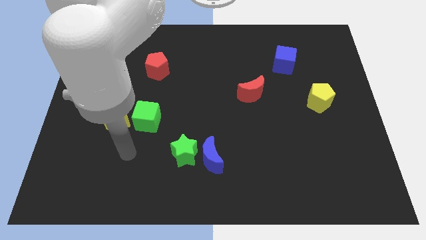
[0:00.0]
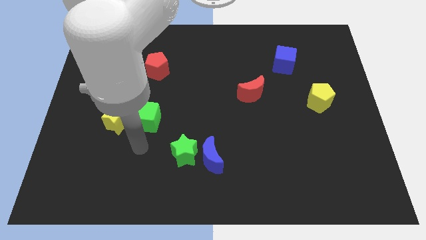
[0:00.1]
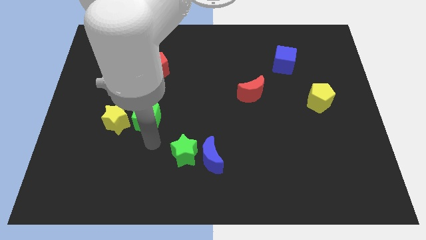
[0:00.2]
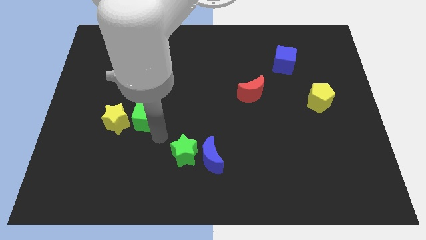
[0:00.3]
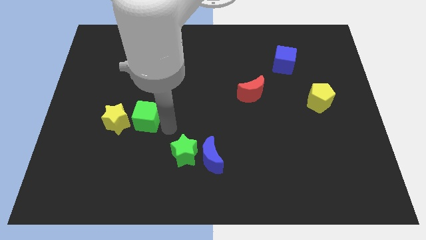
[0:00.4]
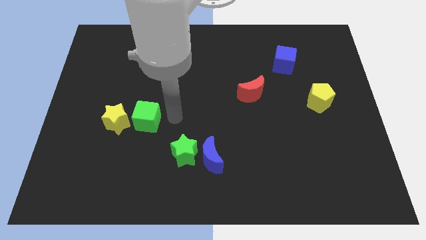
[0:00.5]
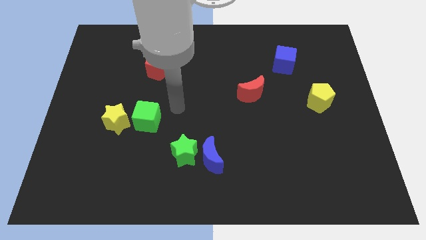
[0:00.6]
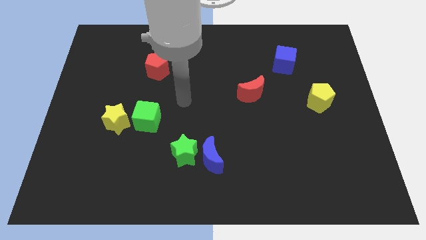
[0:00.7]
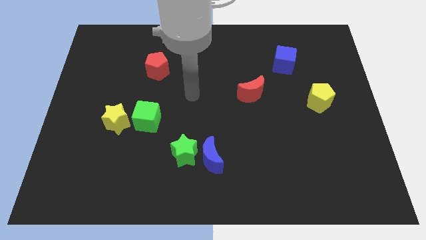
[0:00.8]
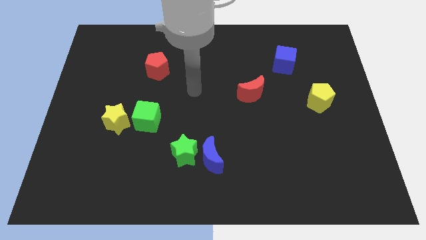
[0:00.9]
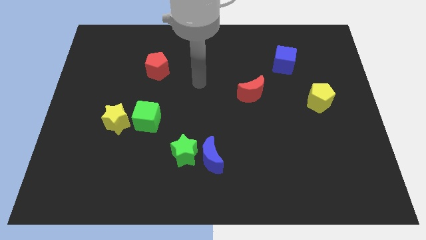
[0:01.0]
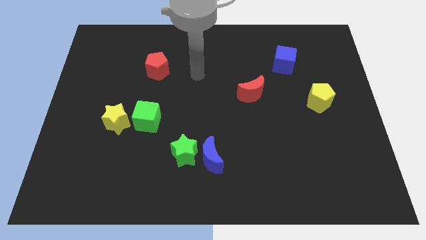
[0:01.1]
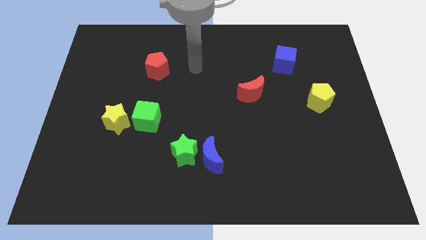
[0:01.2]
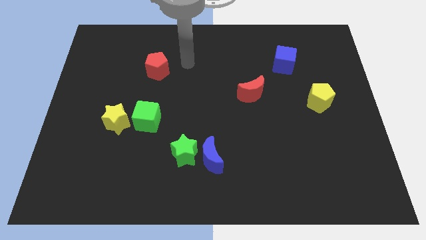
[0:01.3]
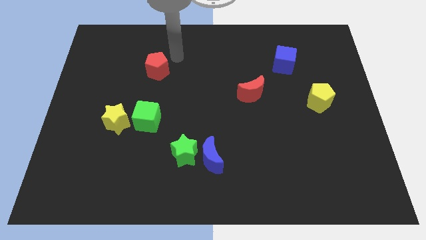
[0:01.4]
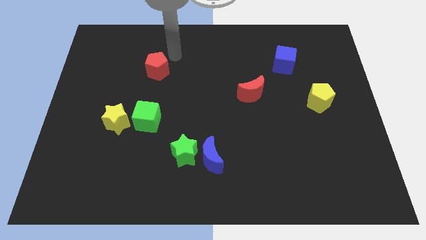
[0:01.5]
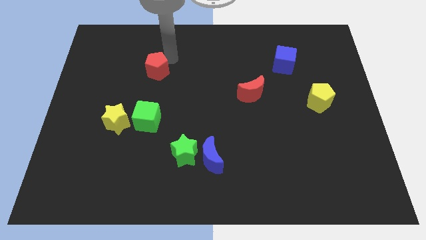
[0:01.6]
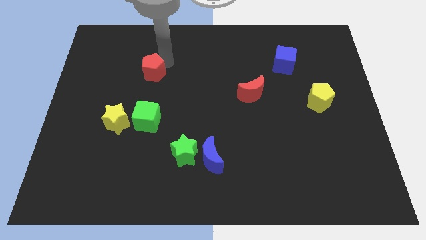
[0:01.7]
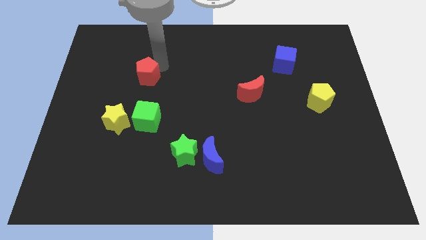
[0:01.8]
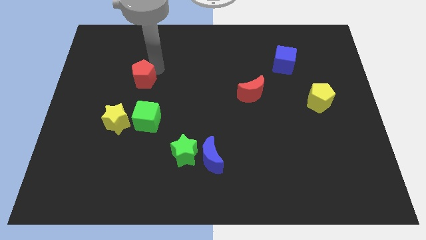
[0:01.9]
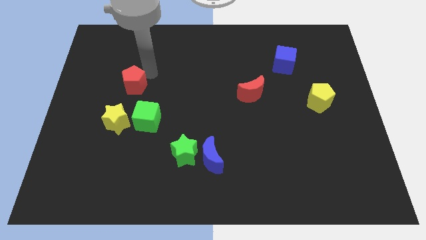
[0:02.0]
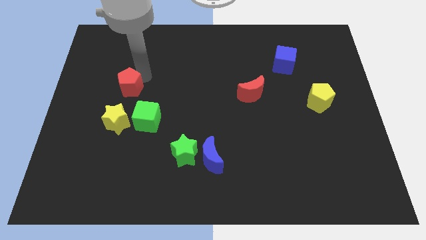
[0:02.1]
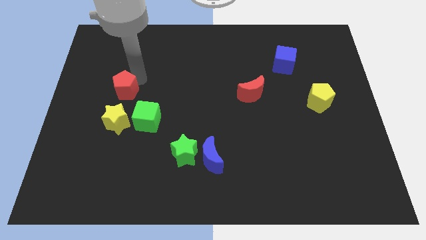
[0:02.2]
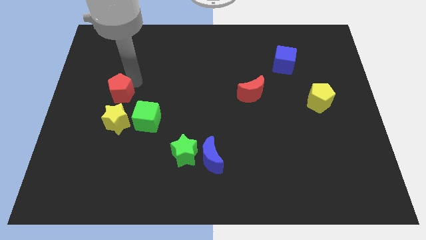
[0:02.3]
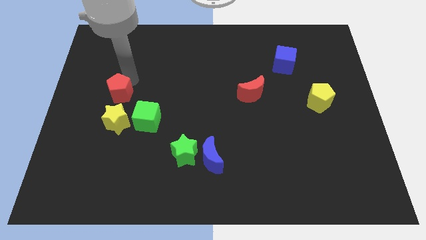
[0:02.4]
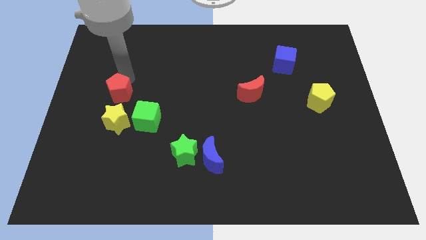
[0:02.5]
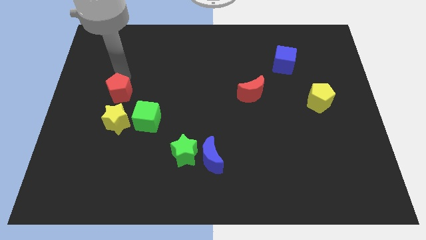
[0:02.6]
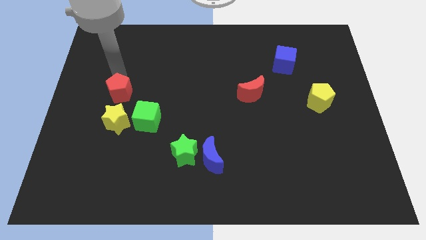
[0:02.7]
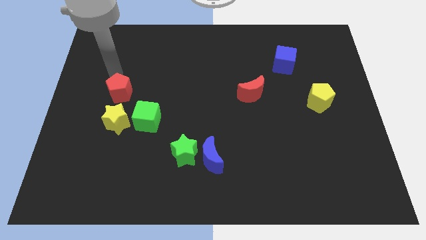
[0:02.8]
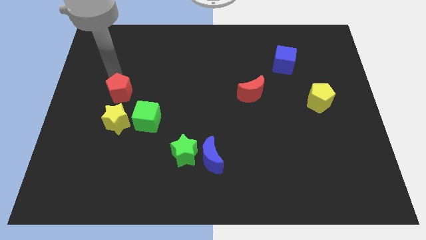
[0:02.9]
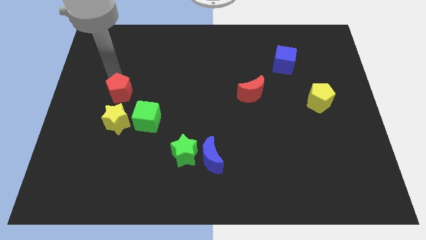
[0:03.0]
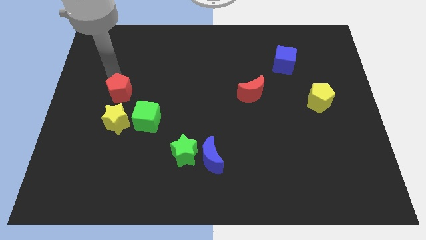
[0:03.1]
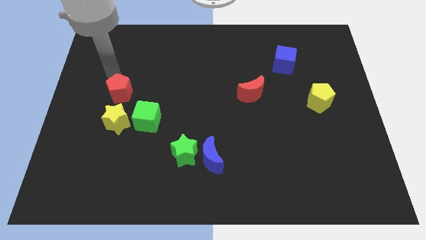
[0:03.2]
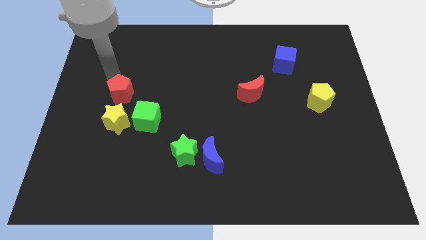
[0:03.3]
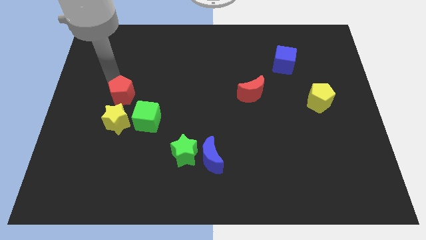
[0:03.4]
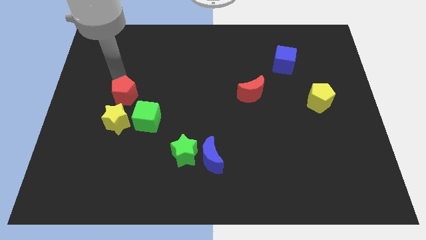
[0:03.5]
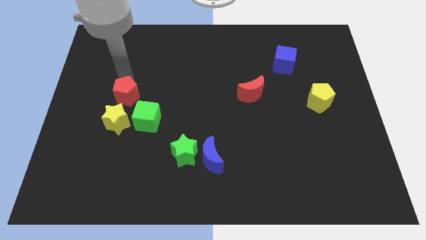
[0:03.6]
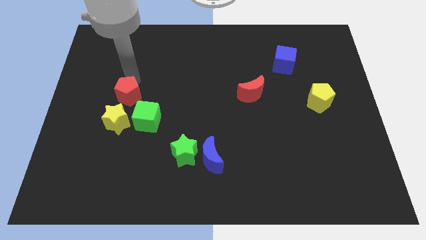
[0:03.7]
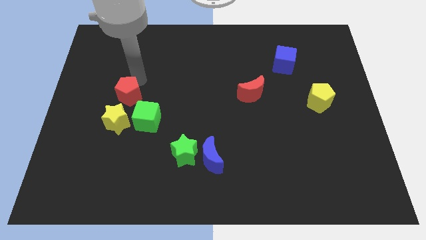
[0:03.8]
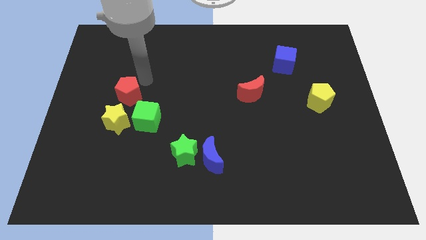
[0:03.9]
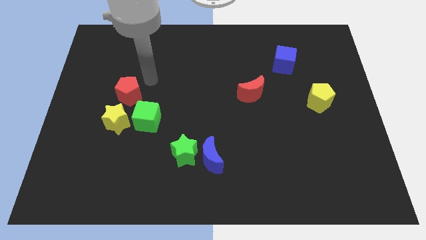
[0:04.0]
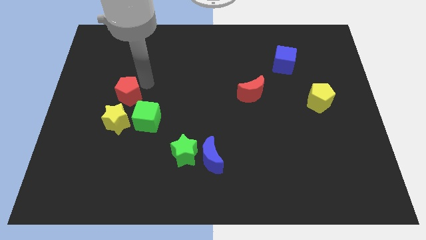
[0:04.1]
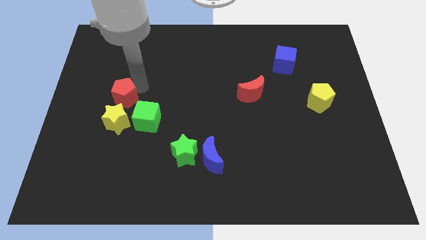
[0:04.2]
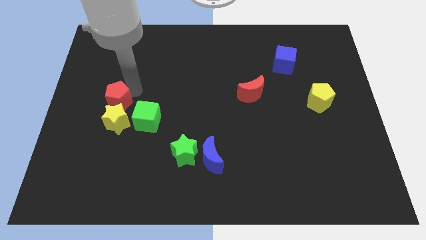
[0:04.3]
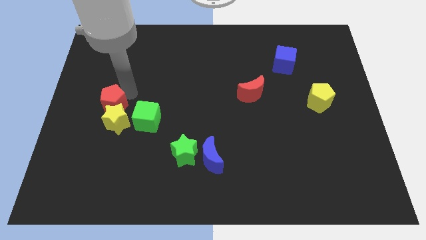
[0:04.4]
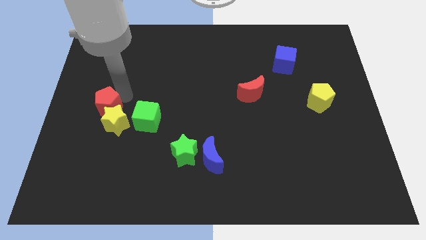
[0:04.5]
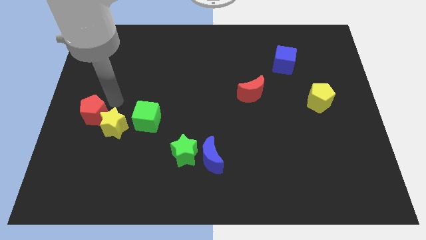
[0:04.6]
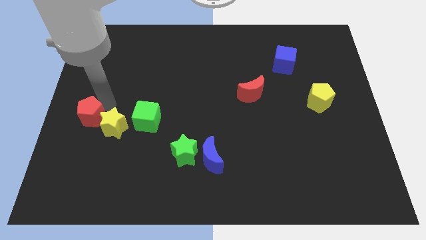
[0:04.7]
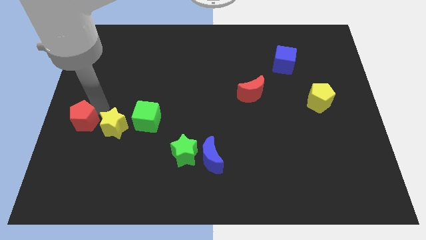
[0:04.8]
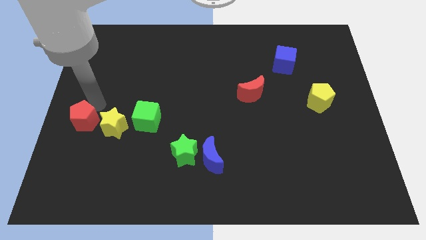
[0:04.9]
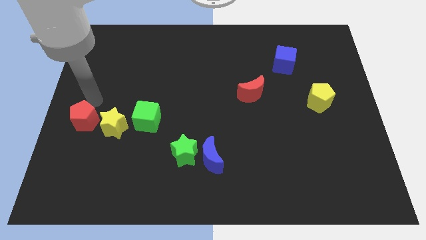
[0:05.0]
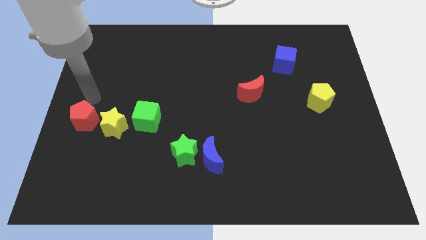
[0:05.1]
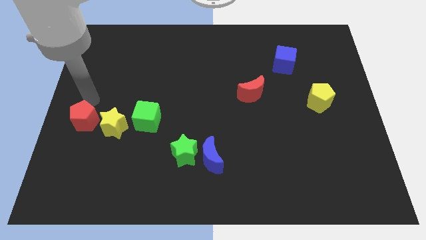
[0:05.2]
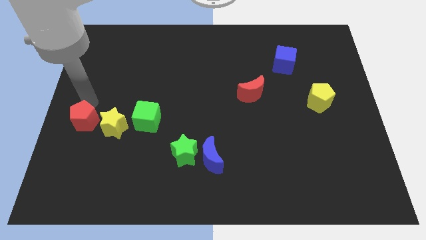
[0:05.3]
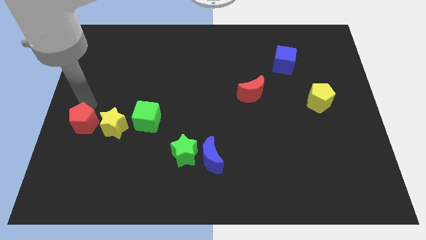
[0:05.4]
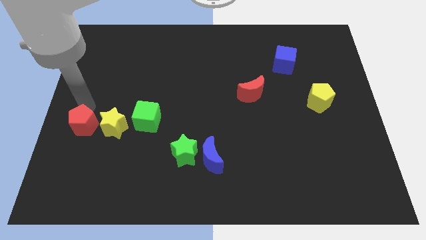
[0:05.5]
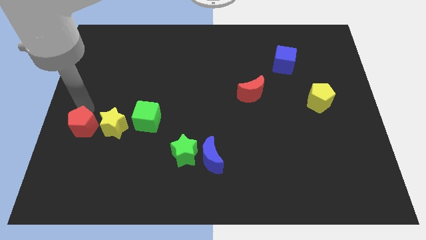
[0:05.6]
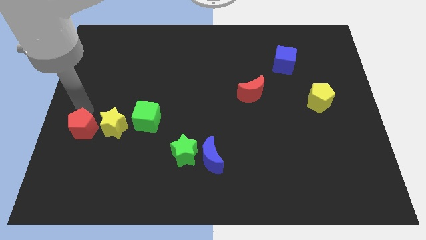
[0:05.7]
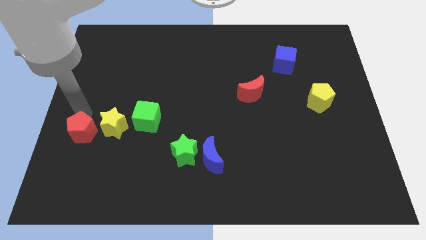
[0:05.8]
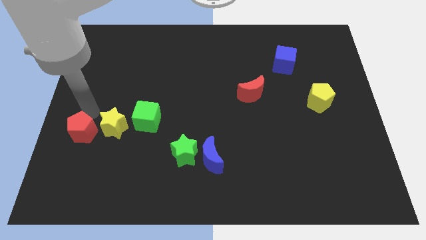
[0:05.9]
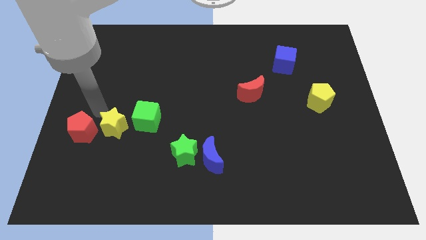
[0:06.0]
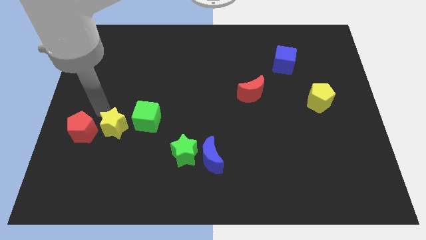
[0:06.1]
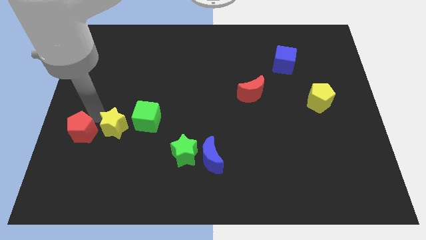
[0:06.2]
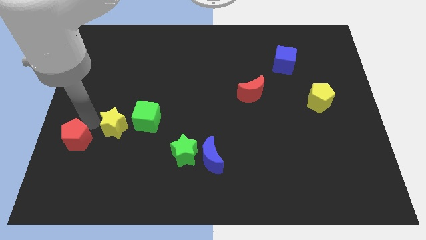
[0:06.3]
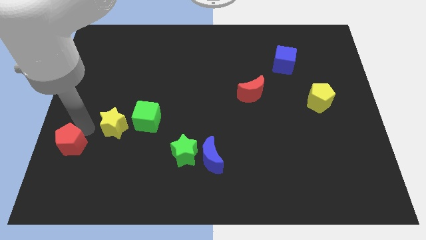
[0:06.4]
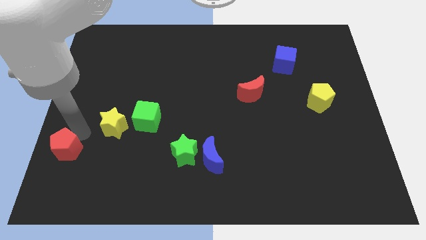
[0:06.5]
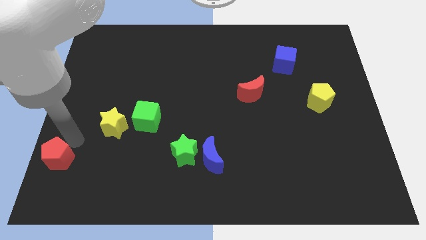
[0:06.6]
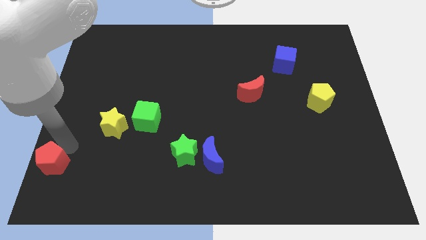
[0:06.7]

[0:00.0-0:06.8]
slide the red pentagon to the bottom left corner
